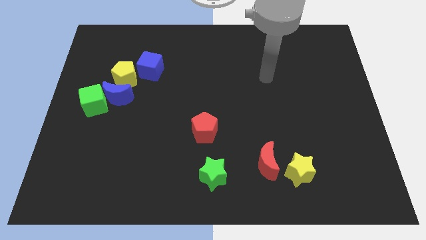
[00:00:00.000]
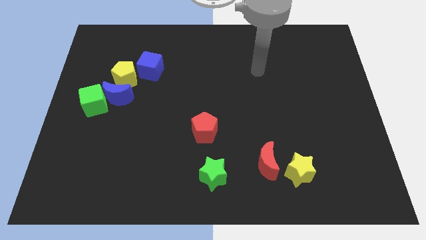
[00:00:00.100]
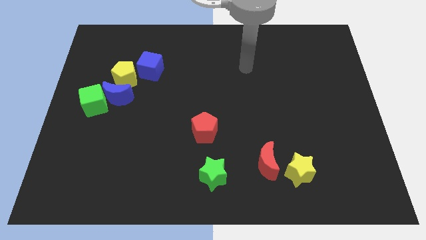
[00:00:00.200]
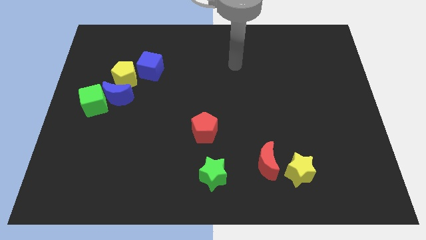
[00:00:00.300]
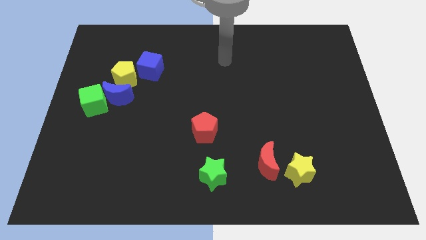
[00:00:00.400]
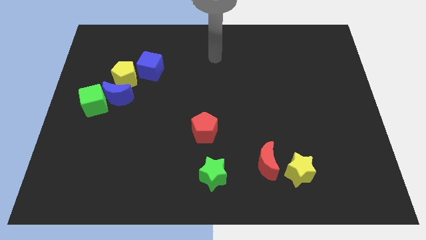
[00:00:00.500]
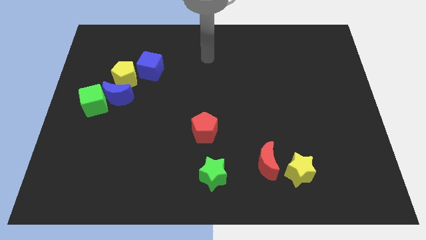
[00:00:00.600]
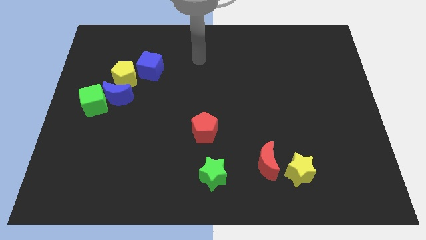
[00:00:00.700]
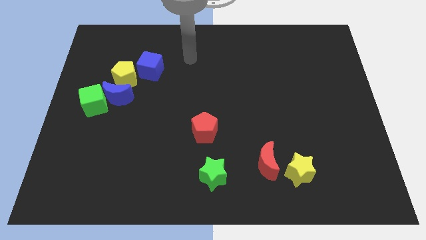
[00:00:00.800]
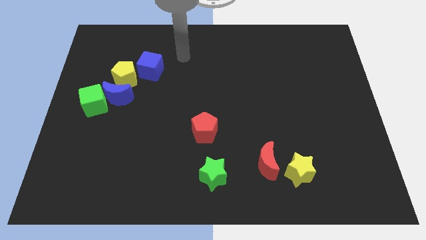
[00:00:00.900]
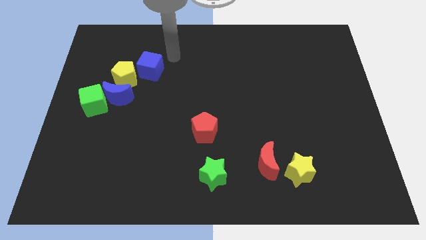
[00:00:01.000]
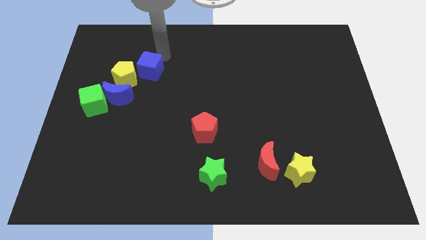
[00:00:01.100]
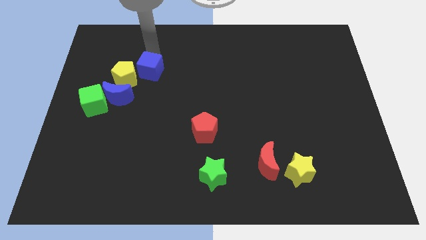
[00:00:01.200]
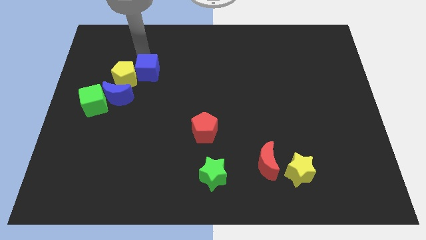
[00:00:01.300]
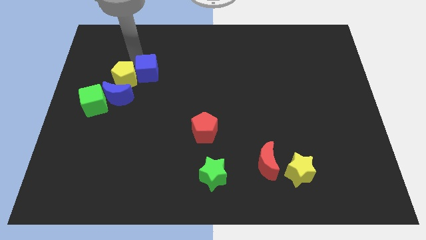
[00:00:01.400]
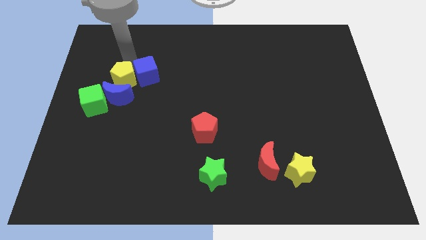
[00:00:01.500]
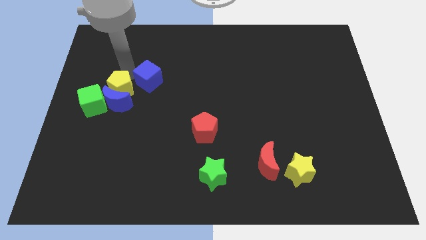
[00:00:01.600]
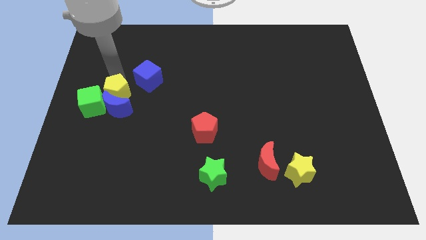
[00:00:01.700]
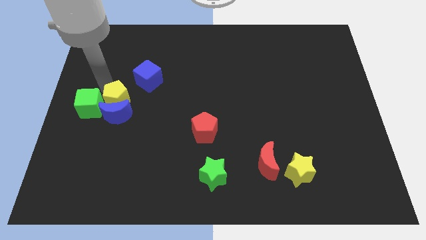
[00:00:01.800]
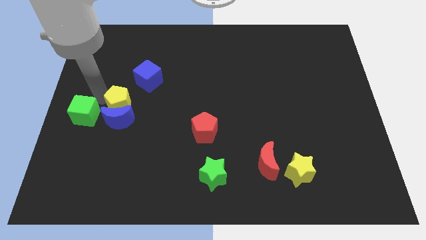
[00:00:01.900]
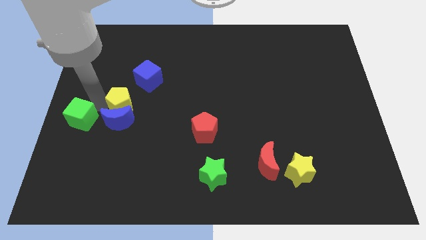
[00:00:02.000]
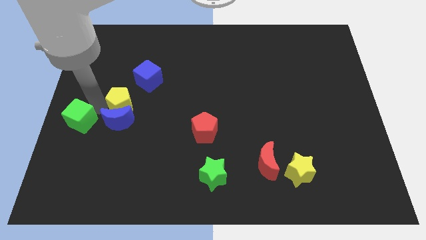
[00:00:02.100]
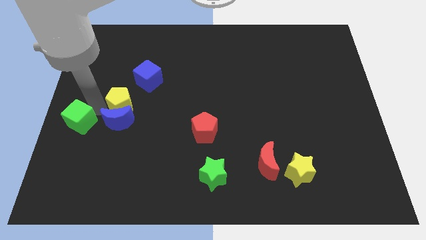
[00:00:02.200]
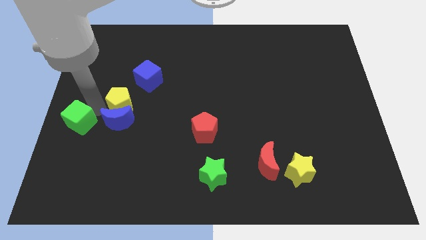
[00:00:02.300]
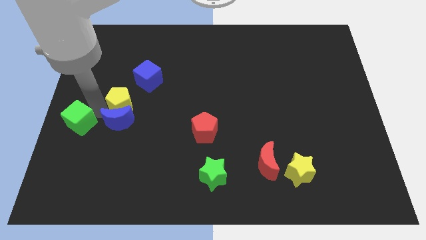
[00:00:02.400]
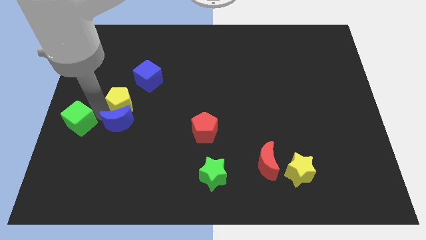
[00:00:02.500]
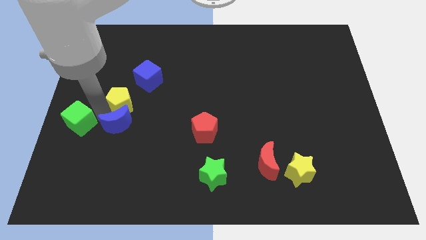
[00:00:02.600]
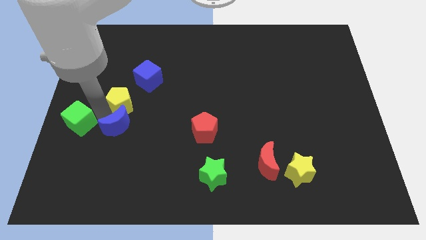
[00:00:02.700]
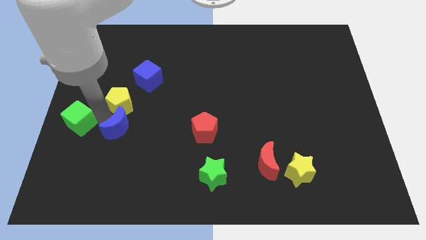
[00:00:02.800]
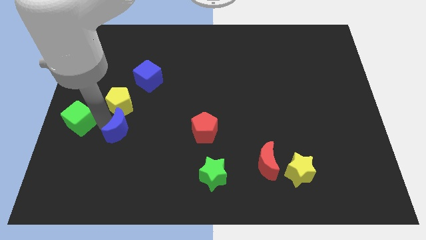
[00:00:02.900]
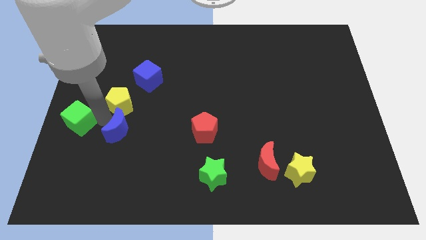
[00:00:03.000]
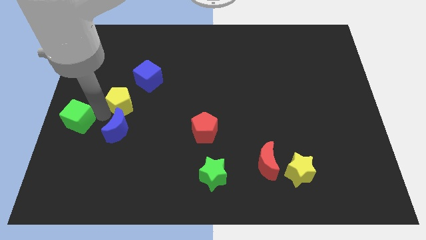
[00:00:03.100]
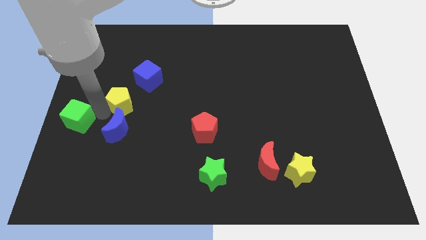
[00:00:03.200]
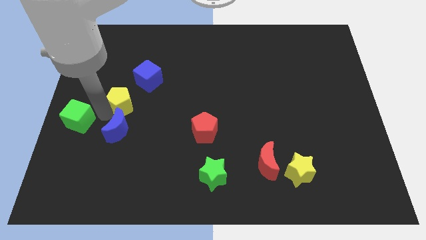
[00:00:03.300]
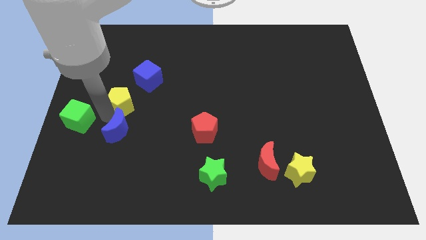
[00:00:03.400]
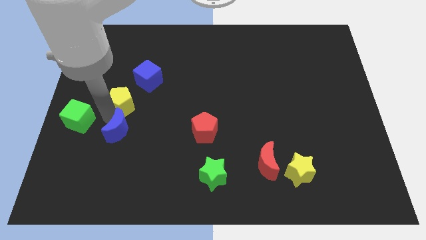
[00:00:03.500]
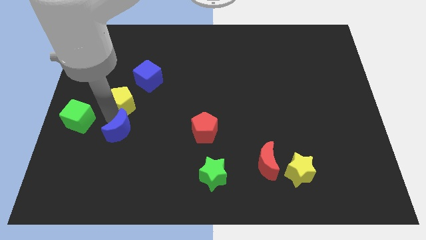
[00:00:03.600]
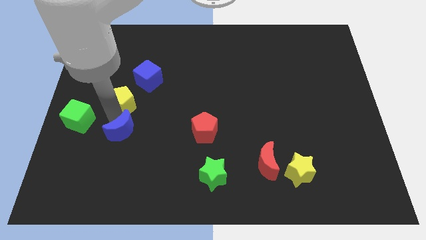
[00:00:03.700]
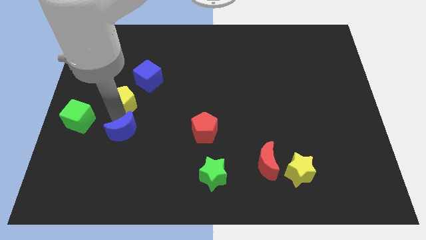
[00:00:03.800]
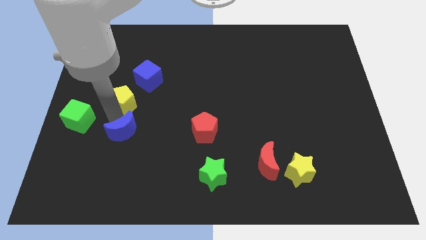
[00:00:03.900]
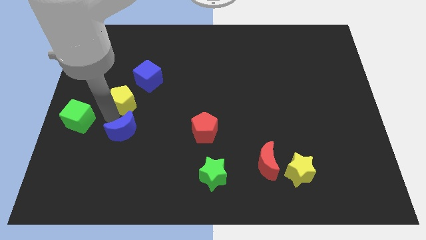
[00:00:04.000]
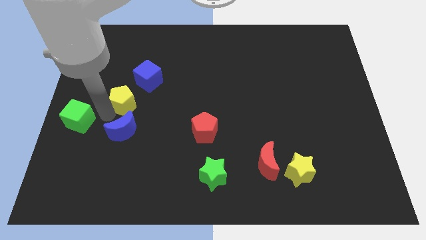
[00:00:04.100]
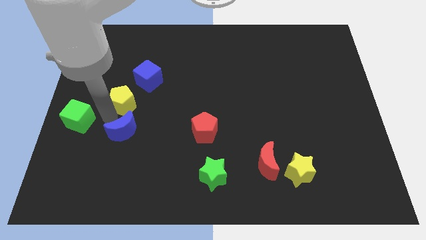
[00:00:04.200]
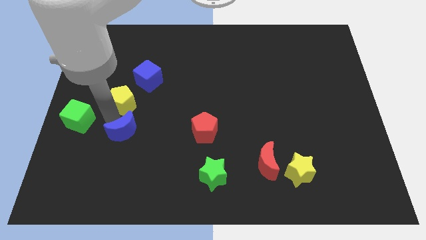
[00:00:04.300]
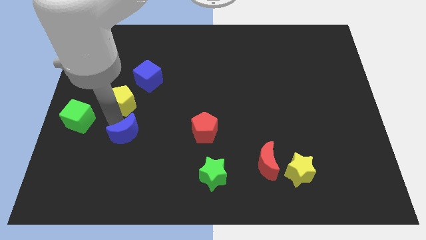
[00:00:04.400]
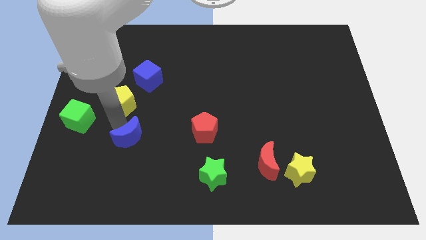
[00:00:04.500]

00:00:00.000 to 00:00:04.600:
pull the blue moon apart from the green cube and yellow pentagon

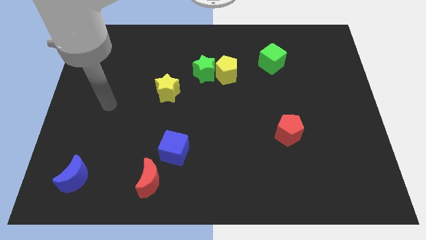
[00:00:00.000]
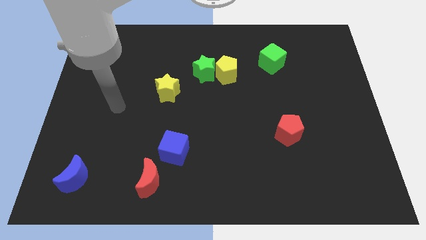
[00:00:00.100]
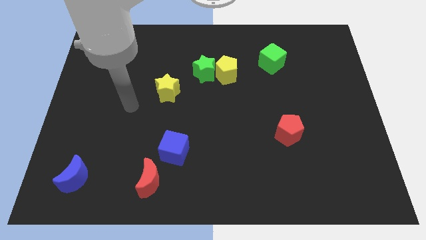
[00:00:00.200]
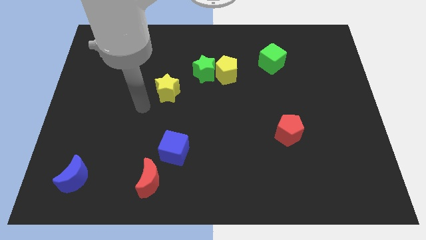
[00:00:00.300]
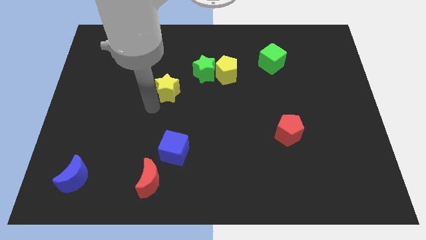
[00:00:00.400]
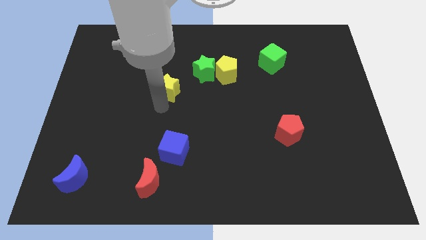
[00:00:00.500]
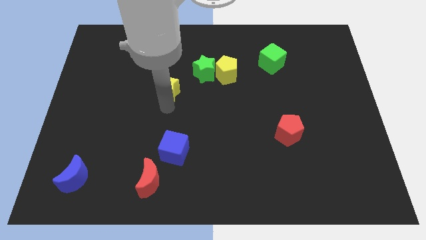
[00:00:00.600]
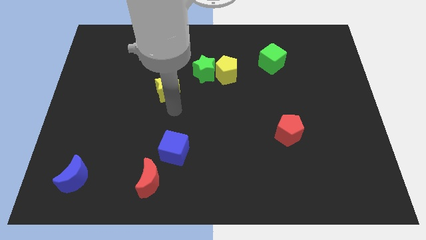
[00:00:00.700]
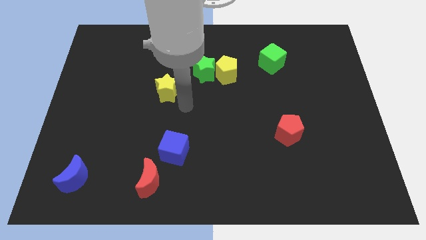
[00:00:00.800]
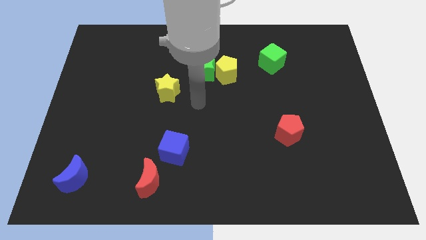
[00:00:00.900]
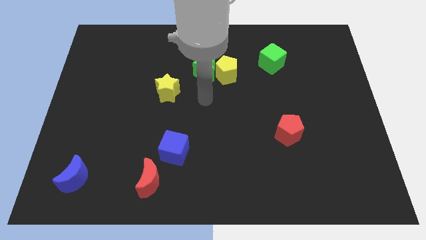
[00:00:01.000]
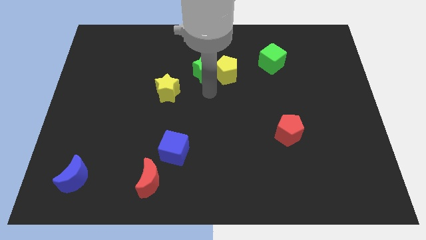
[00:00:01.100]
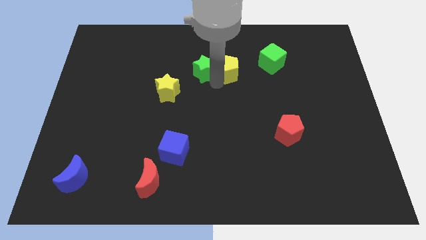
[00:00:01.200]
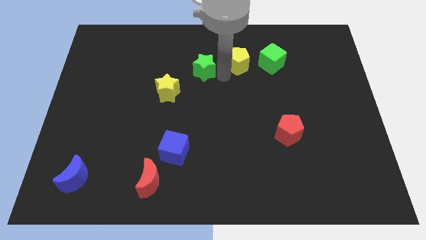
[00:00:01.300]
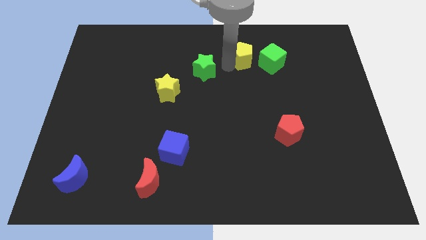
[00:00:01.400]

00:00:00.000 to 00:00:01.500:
separate the green star from the yellow pentagon

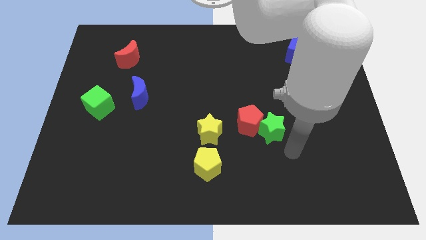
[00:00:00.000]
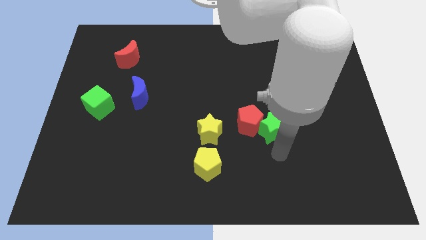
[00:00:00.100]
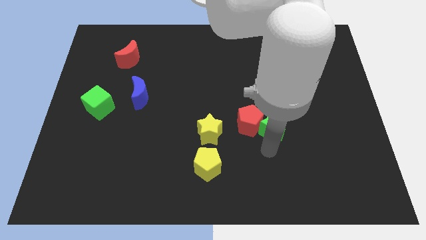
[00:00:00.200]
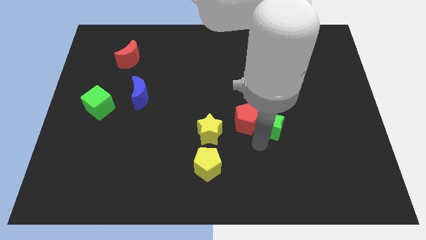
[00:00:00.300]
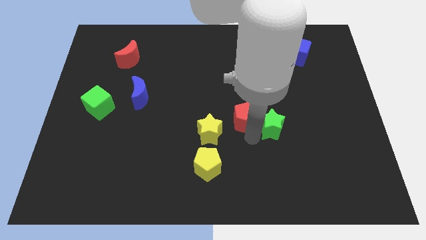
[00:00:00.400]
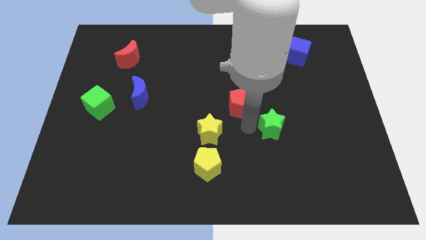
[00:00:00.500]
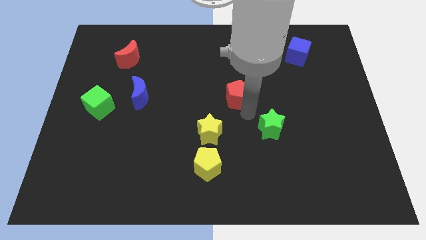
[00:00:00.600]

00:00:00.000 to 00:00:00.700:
pull the green star apart from the red pentagon

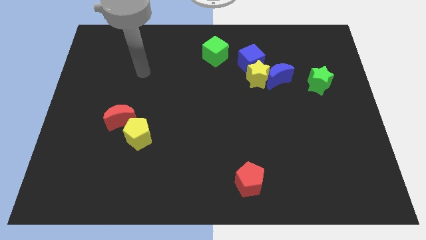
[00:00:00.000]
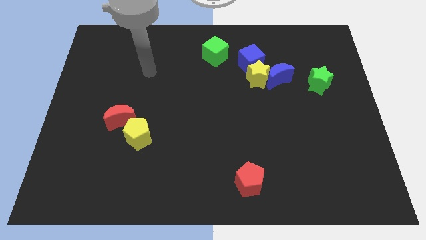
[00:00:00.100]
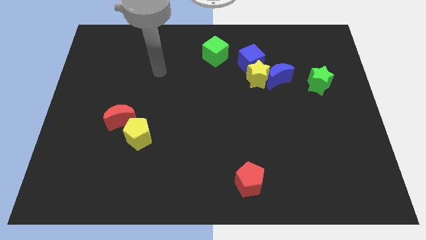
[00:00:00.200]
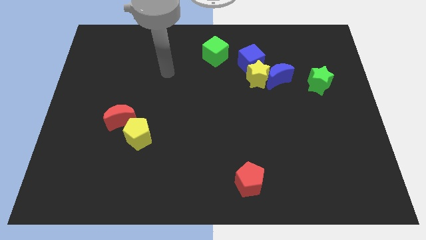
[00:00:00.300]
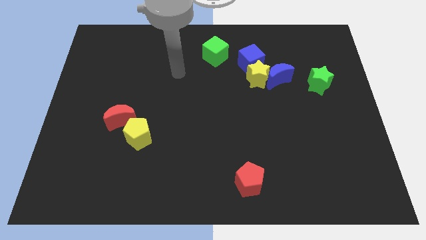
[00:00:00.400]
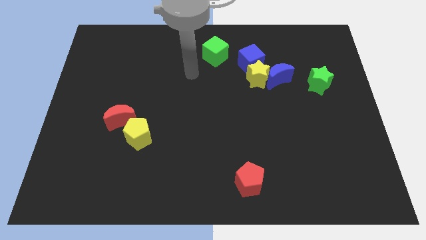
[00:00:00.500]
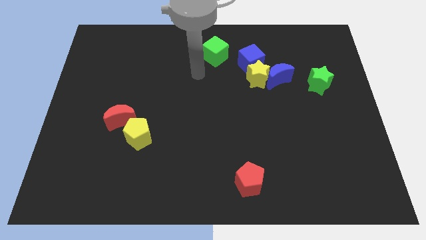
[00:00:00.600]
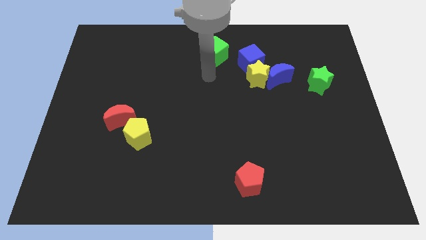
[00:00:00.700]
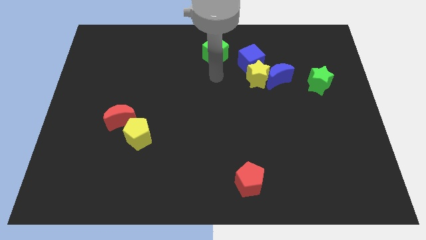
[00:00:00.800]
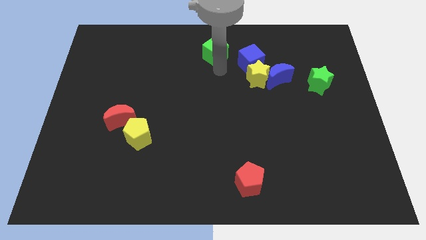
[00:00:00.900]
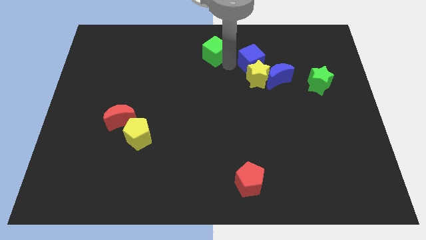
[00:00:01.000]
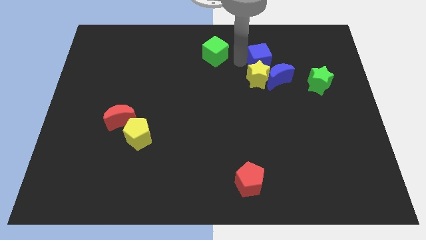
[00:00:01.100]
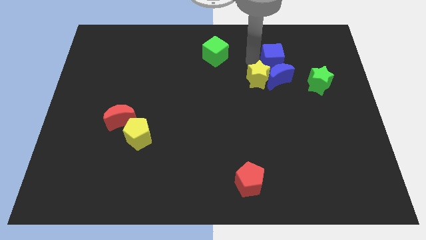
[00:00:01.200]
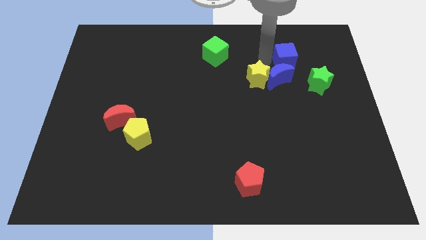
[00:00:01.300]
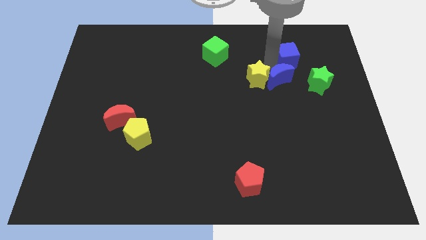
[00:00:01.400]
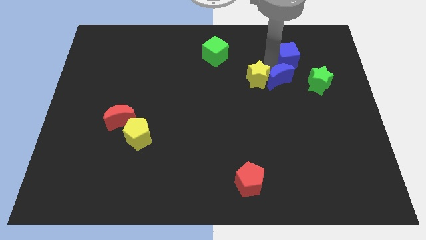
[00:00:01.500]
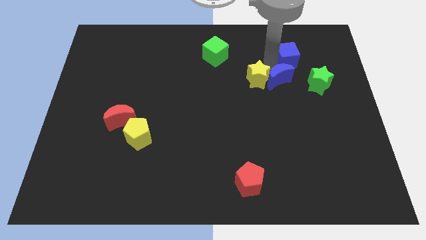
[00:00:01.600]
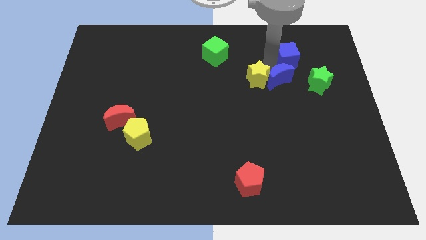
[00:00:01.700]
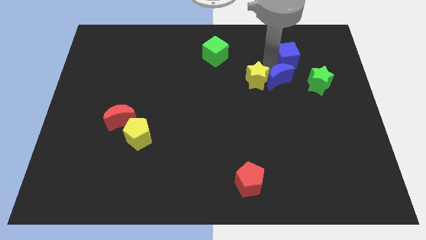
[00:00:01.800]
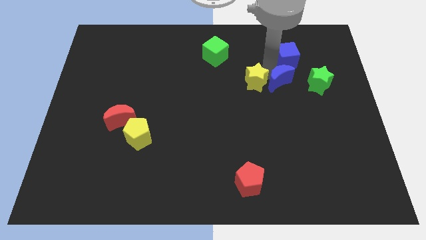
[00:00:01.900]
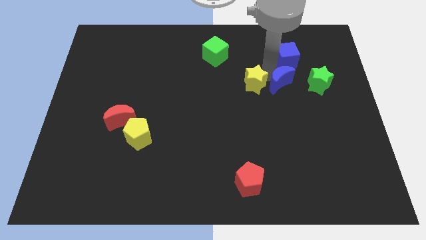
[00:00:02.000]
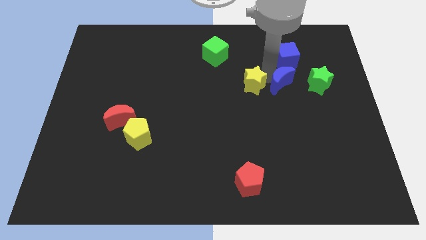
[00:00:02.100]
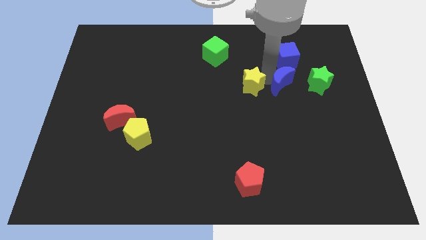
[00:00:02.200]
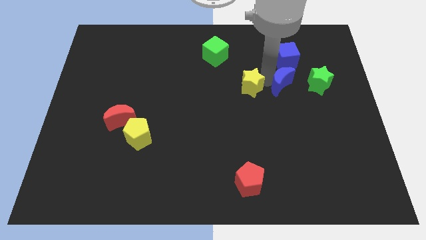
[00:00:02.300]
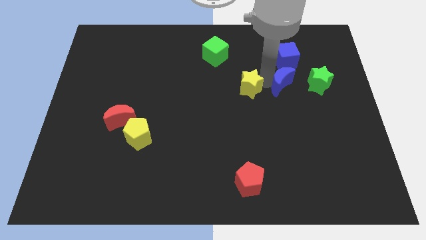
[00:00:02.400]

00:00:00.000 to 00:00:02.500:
separate the yellow star from the blue moon and blue cube
